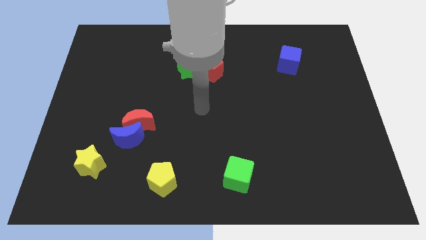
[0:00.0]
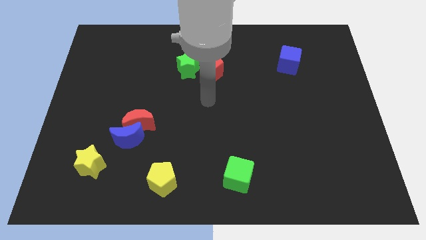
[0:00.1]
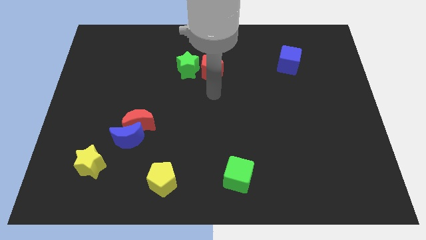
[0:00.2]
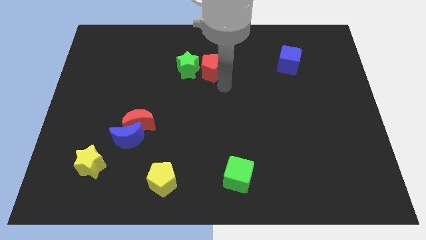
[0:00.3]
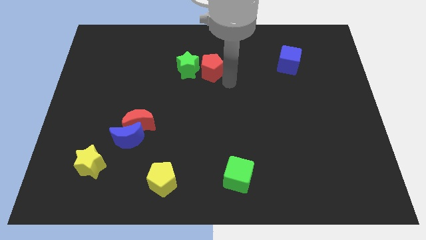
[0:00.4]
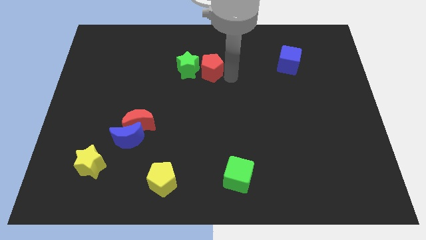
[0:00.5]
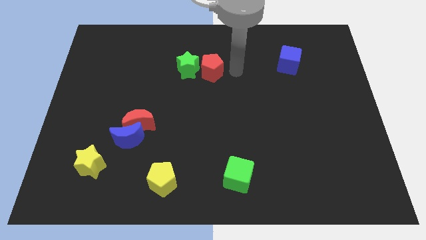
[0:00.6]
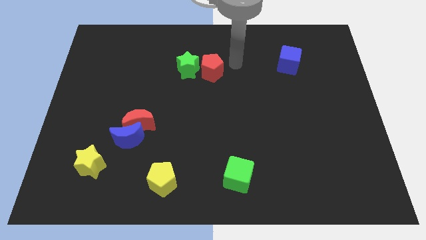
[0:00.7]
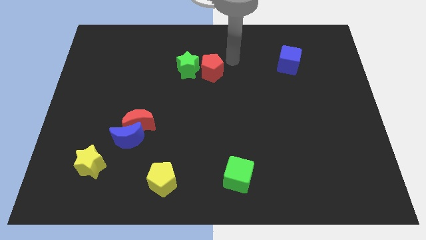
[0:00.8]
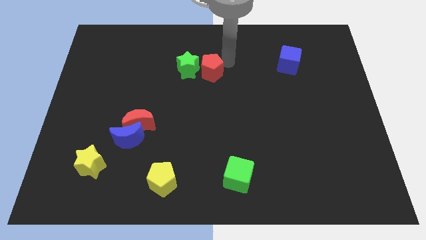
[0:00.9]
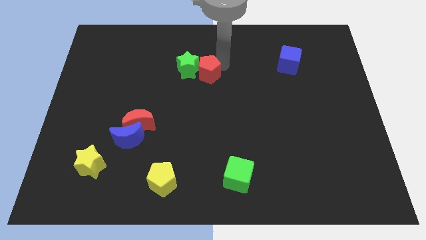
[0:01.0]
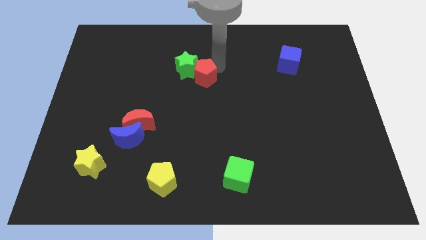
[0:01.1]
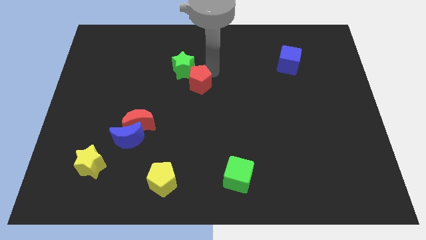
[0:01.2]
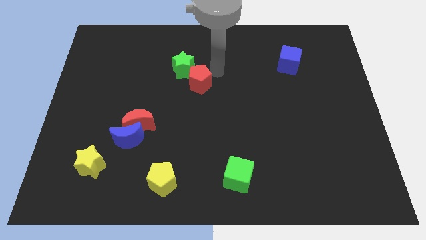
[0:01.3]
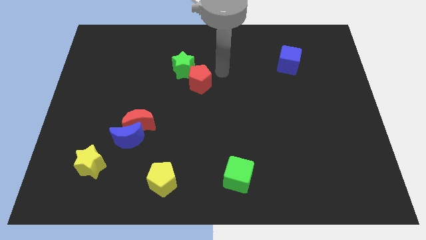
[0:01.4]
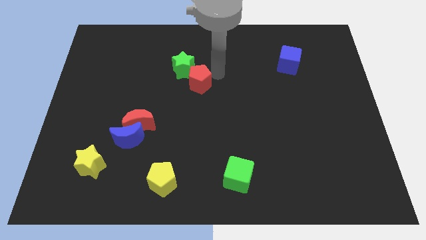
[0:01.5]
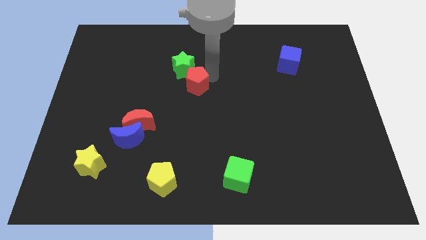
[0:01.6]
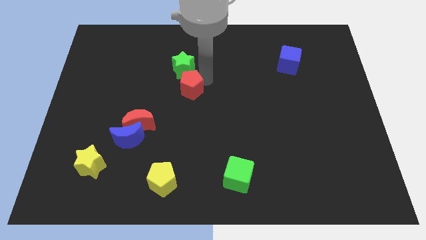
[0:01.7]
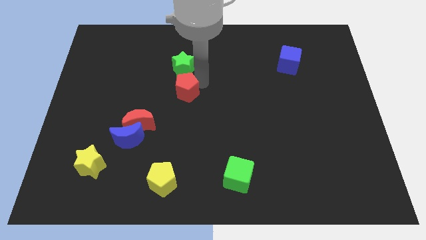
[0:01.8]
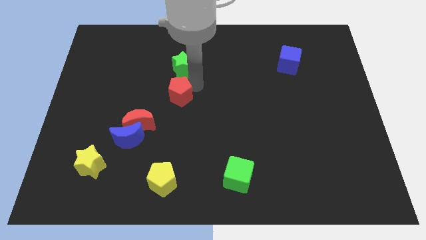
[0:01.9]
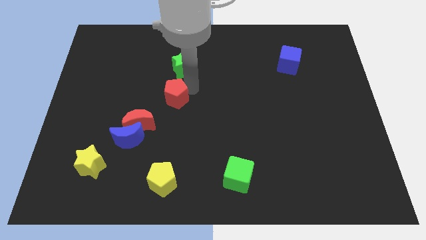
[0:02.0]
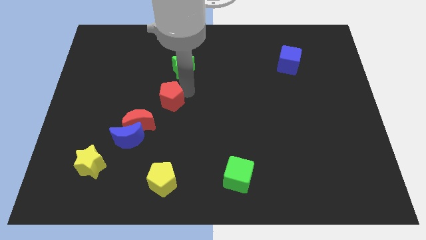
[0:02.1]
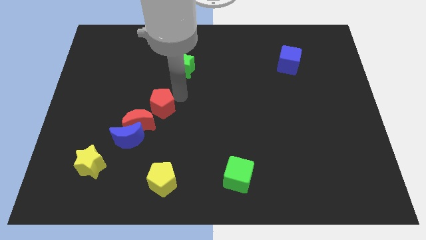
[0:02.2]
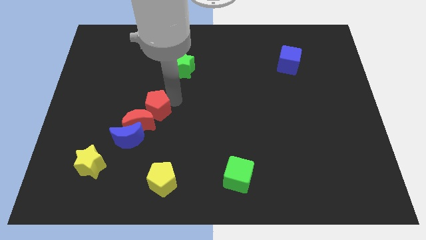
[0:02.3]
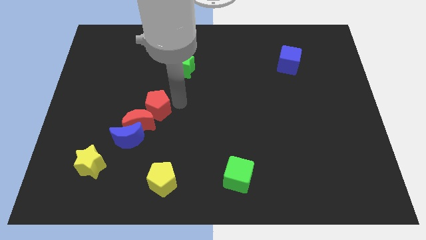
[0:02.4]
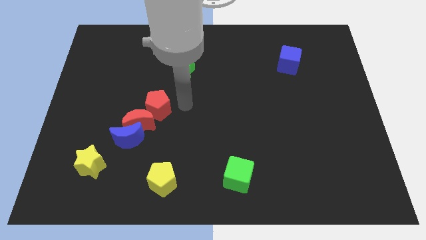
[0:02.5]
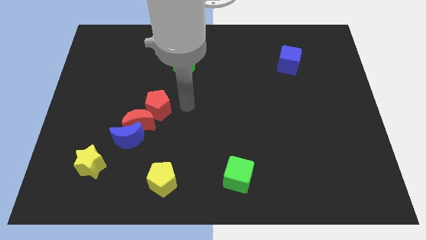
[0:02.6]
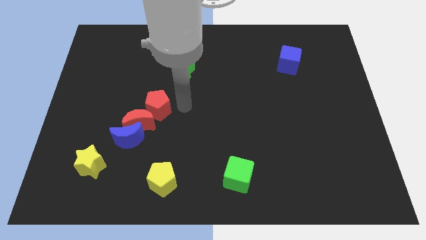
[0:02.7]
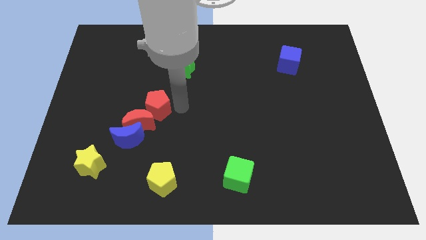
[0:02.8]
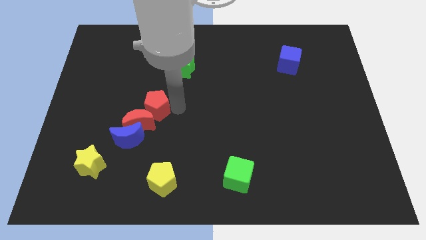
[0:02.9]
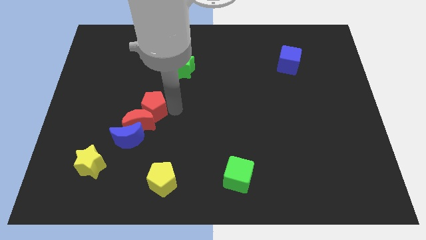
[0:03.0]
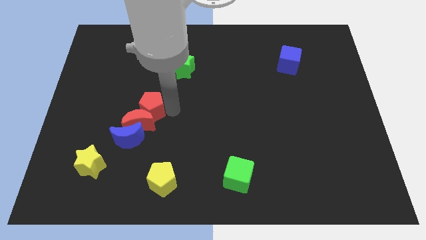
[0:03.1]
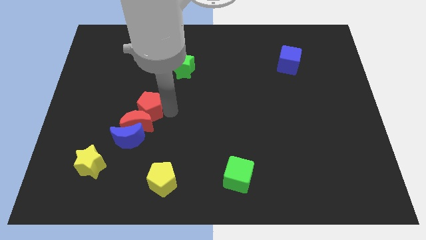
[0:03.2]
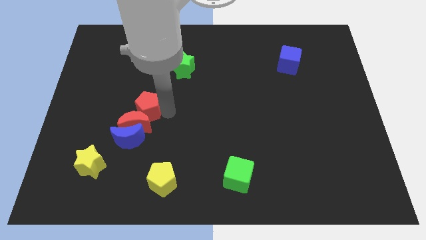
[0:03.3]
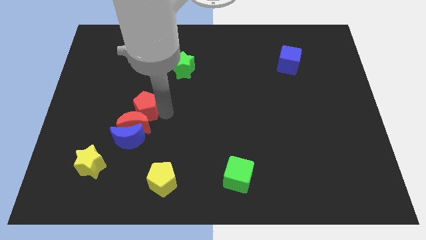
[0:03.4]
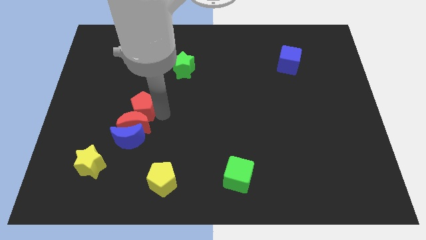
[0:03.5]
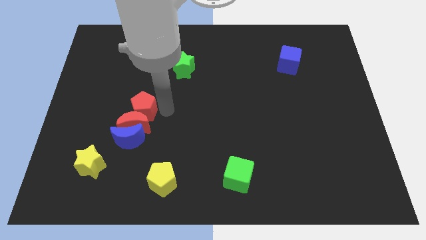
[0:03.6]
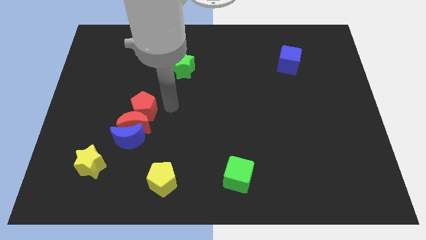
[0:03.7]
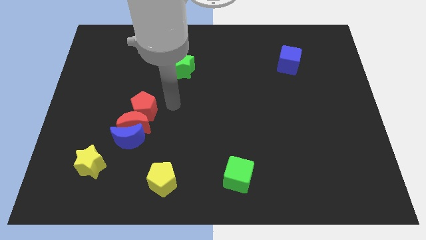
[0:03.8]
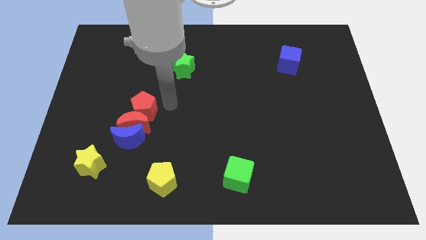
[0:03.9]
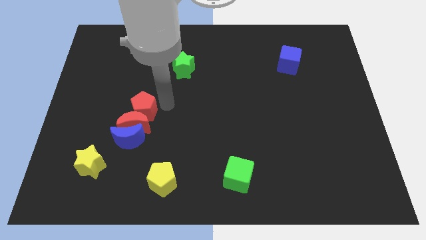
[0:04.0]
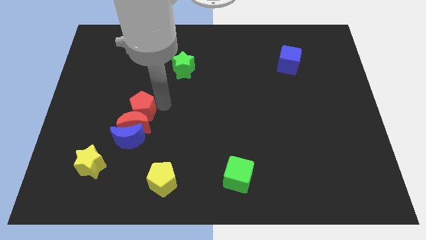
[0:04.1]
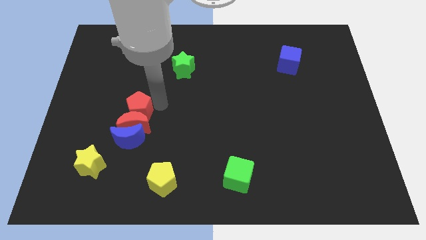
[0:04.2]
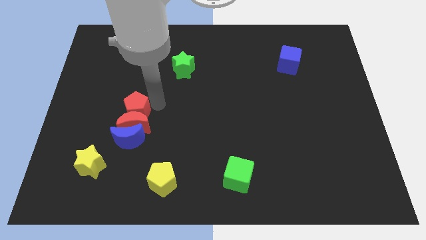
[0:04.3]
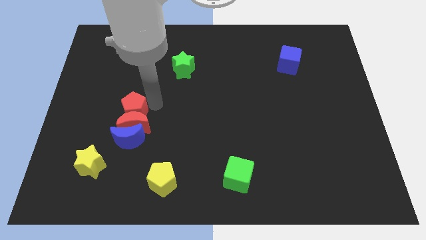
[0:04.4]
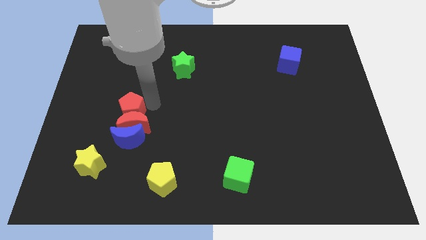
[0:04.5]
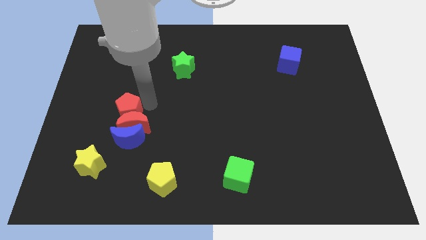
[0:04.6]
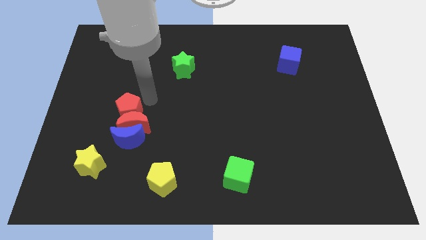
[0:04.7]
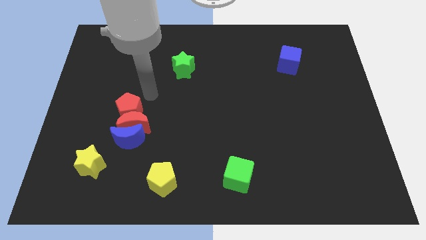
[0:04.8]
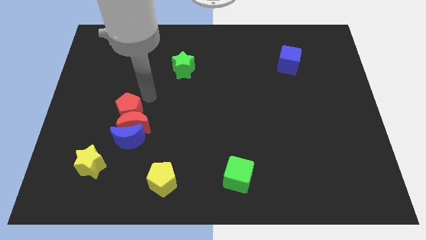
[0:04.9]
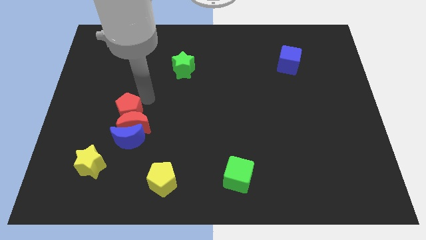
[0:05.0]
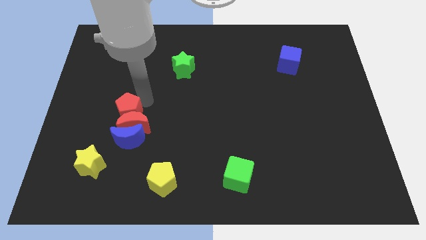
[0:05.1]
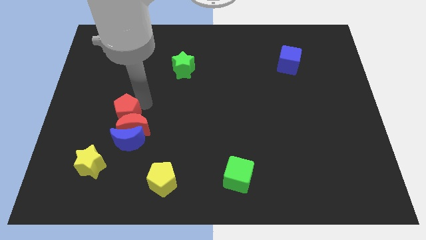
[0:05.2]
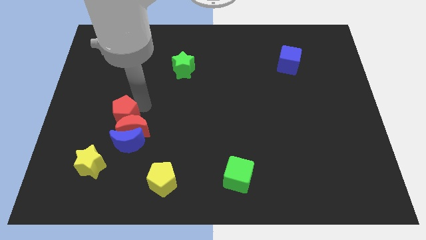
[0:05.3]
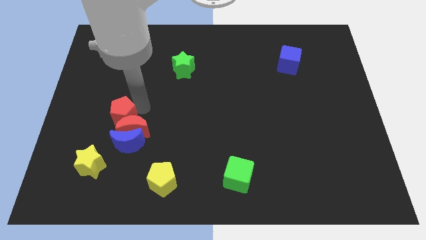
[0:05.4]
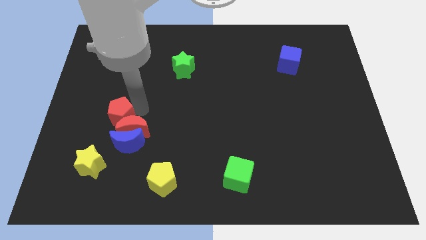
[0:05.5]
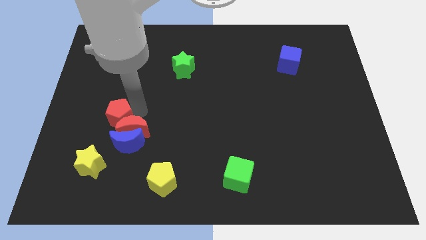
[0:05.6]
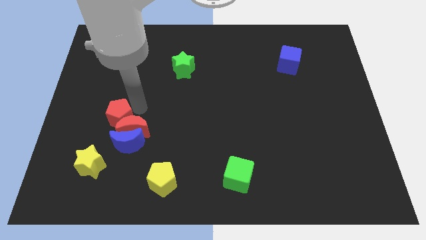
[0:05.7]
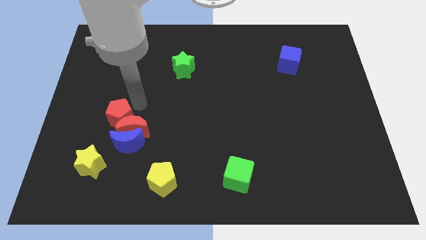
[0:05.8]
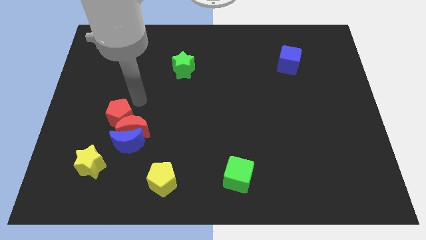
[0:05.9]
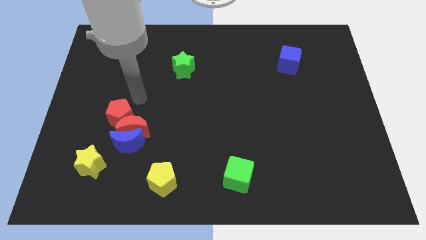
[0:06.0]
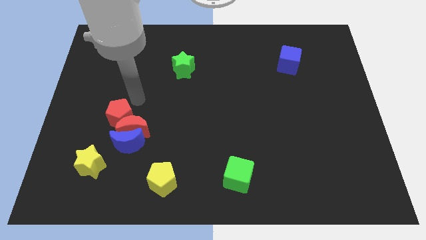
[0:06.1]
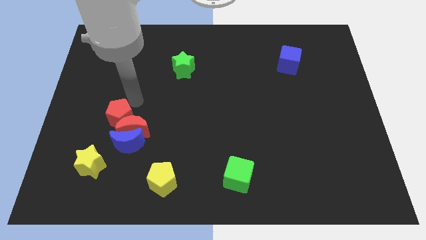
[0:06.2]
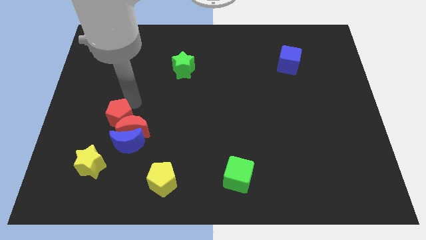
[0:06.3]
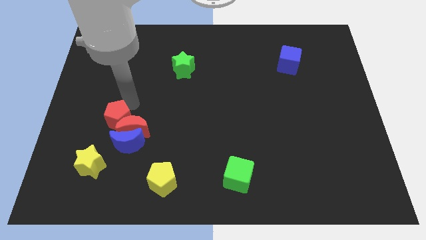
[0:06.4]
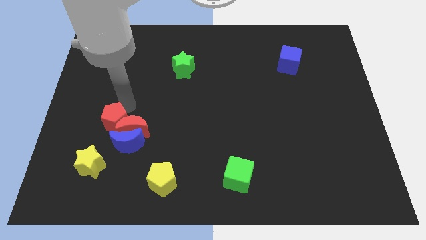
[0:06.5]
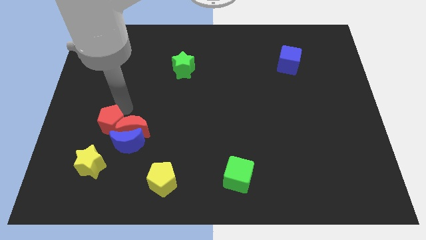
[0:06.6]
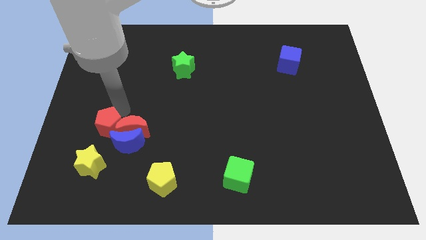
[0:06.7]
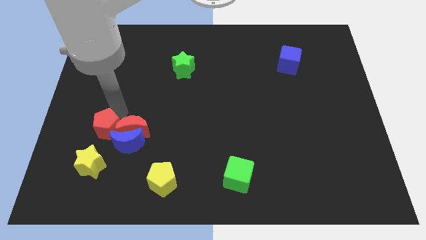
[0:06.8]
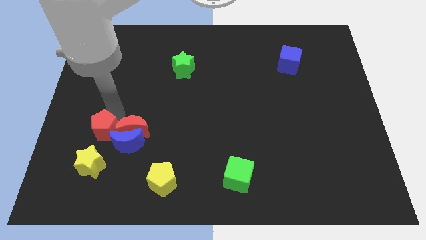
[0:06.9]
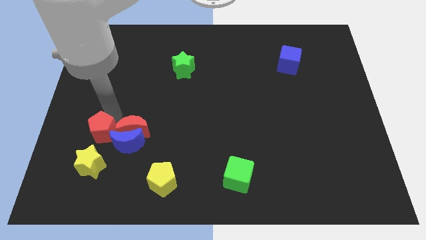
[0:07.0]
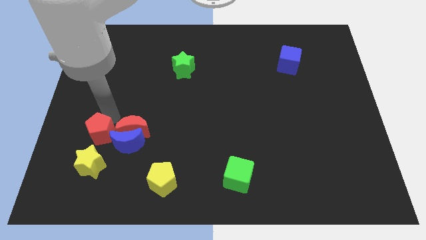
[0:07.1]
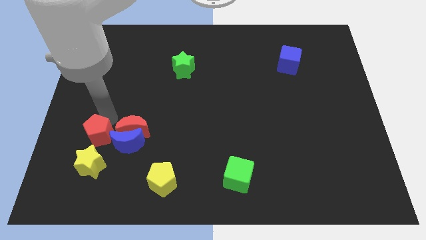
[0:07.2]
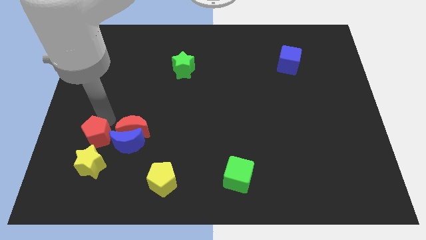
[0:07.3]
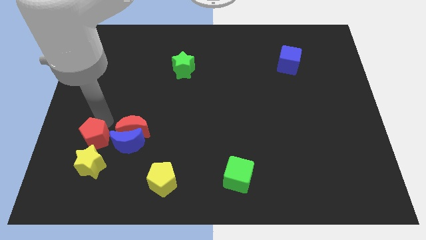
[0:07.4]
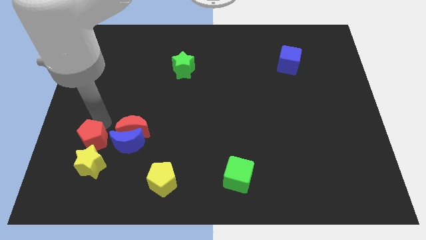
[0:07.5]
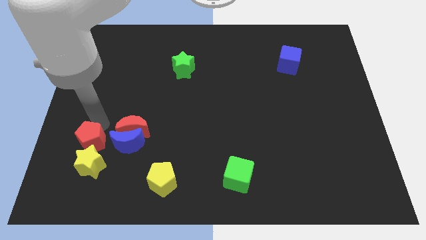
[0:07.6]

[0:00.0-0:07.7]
push the red pentagon to the yellow star

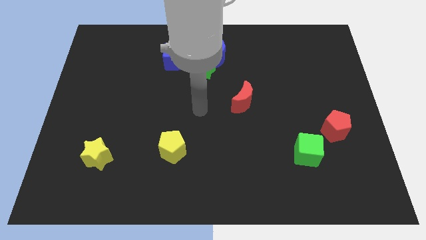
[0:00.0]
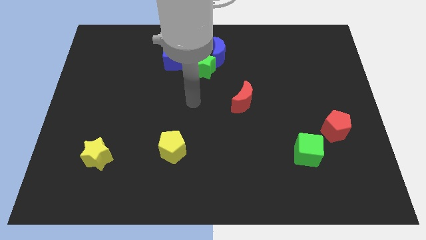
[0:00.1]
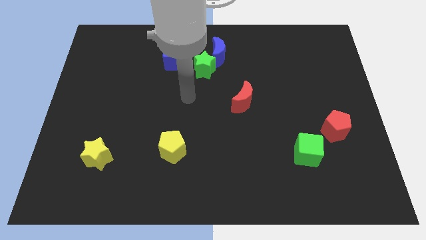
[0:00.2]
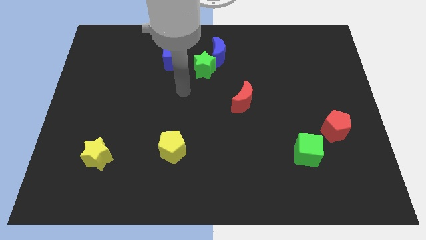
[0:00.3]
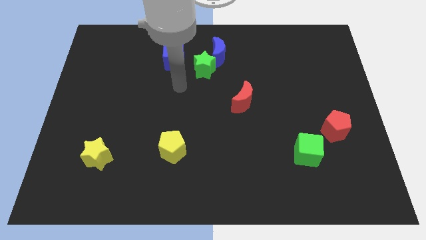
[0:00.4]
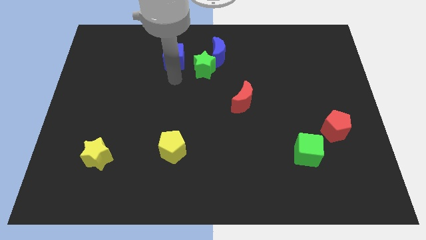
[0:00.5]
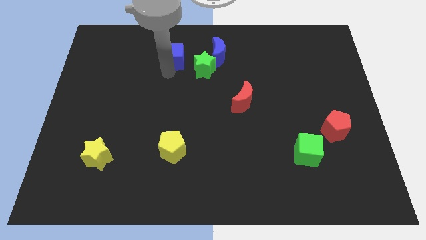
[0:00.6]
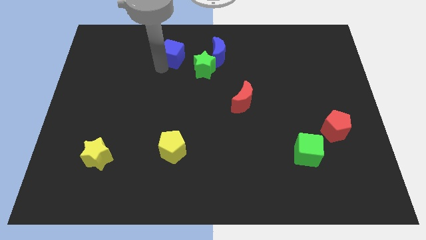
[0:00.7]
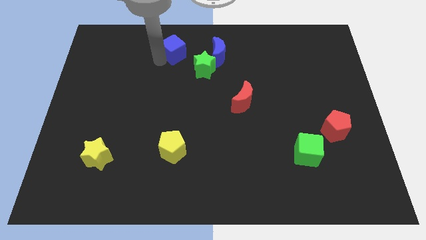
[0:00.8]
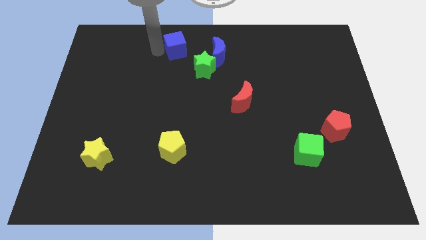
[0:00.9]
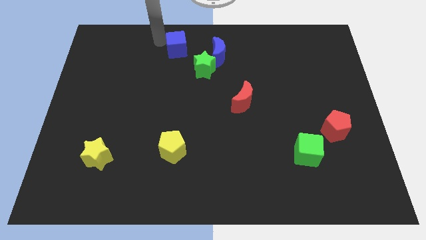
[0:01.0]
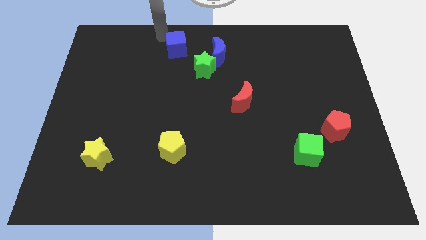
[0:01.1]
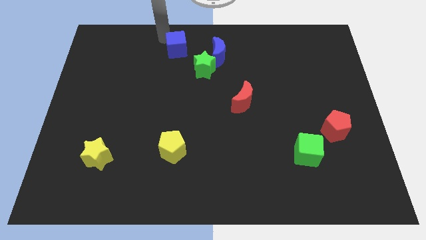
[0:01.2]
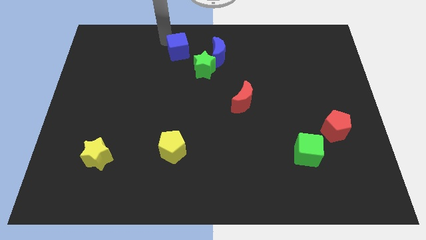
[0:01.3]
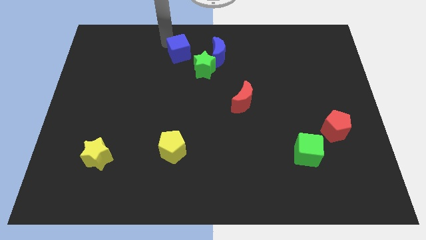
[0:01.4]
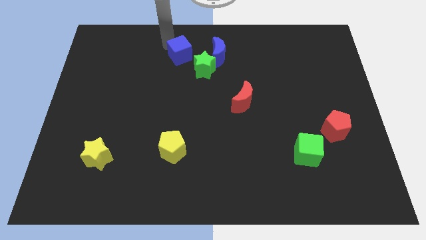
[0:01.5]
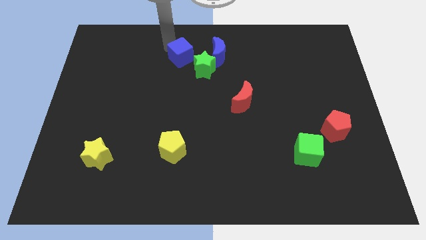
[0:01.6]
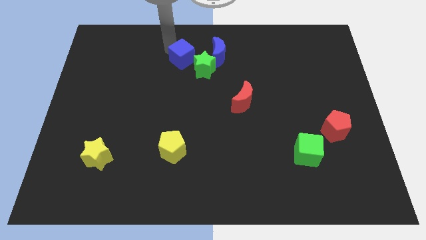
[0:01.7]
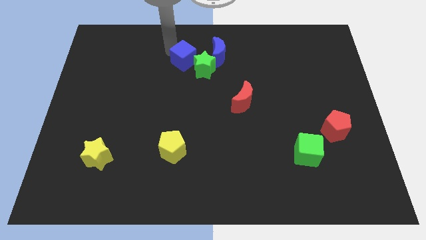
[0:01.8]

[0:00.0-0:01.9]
slide the blue cube towards the green star
